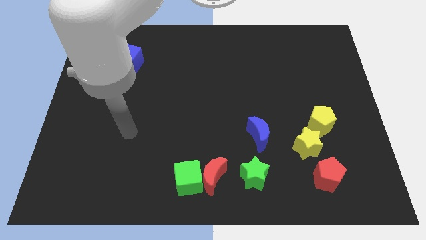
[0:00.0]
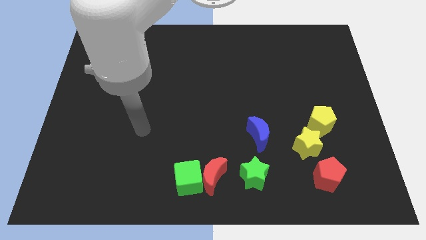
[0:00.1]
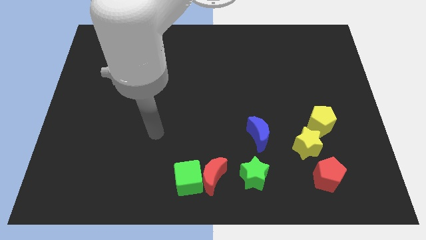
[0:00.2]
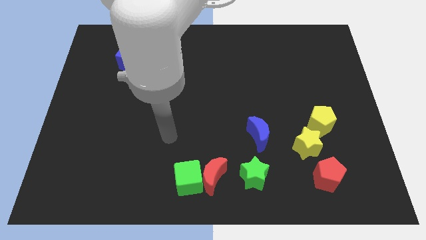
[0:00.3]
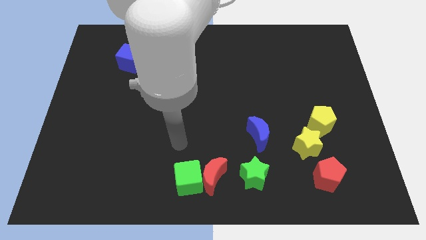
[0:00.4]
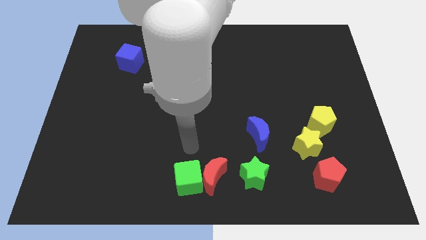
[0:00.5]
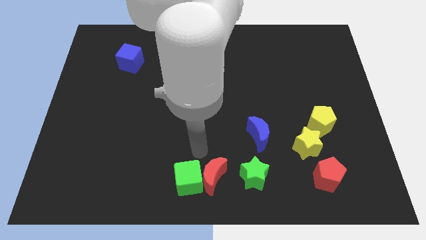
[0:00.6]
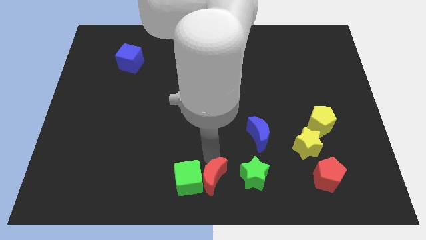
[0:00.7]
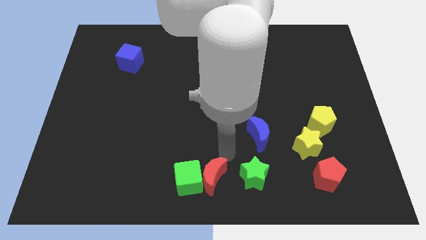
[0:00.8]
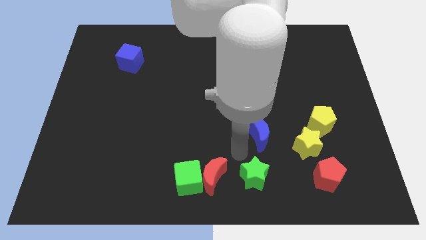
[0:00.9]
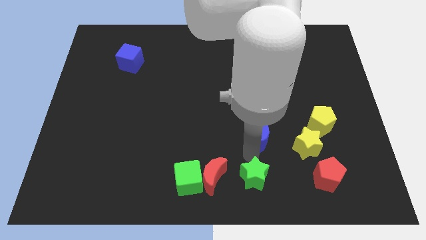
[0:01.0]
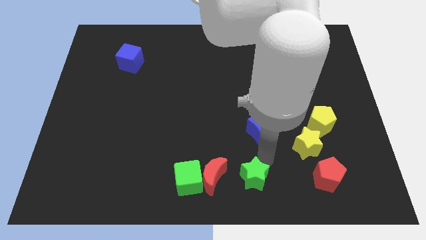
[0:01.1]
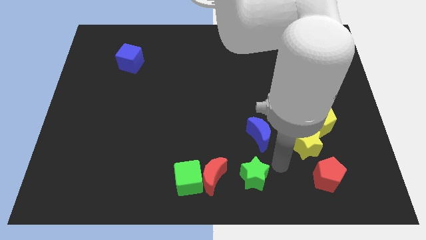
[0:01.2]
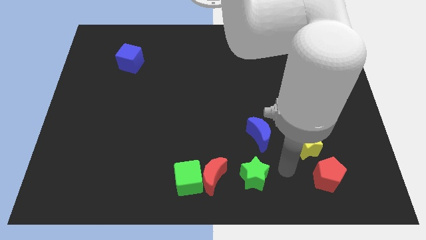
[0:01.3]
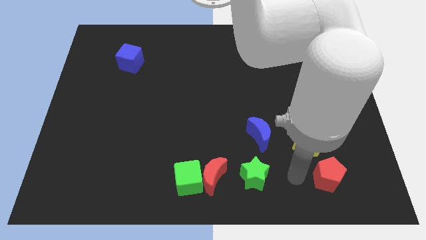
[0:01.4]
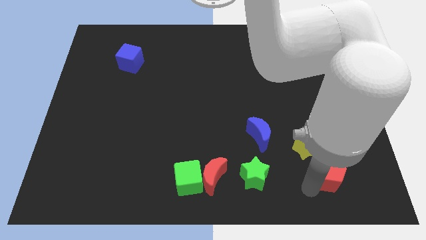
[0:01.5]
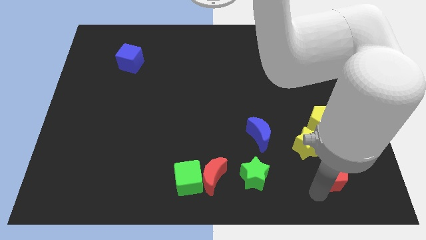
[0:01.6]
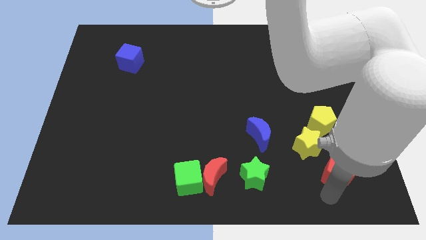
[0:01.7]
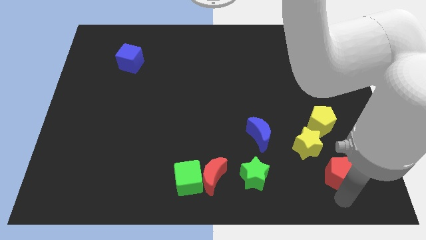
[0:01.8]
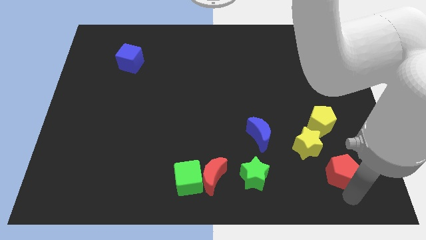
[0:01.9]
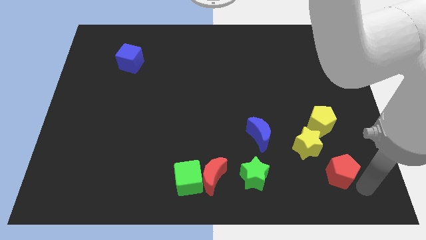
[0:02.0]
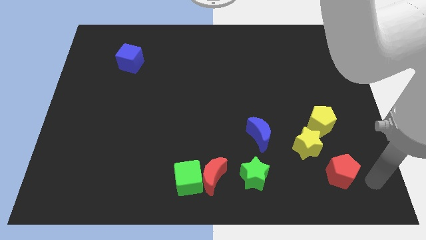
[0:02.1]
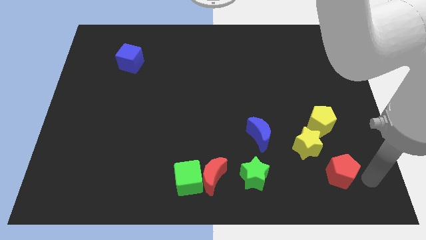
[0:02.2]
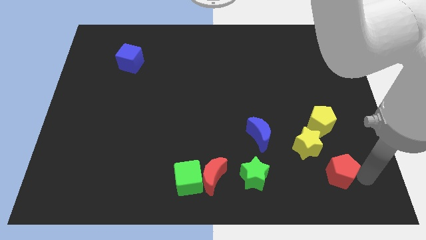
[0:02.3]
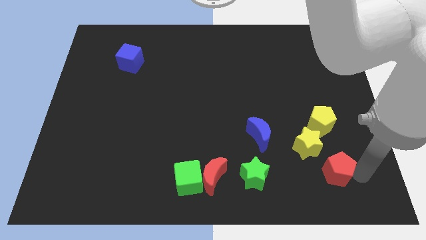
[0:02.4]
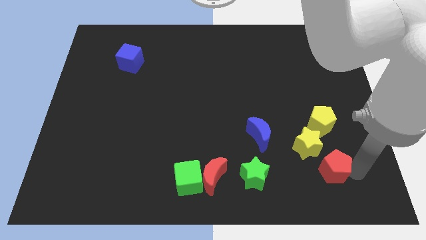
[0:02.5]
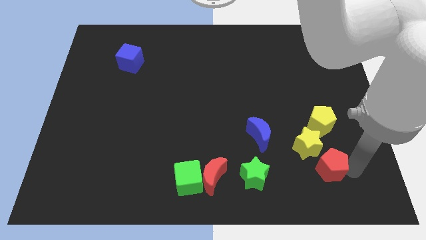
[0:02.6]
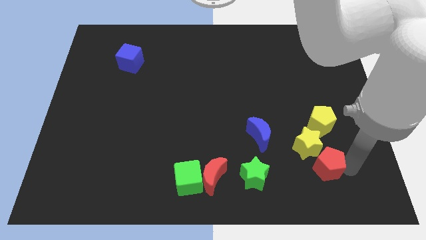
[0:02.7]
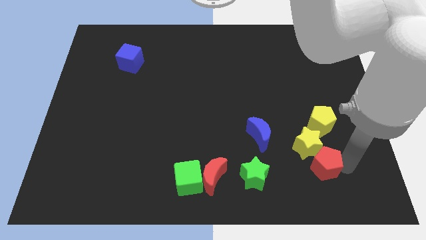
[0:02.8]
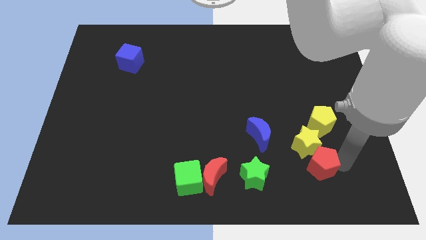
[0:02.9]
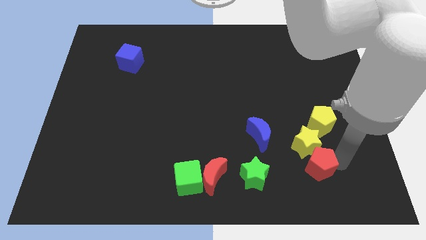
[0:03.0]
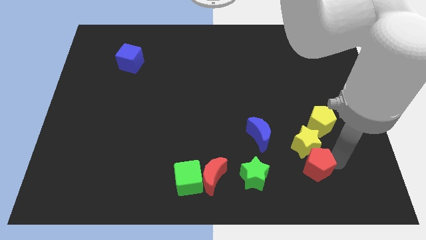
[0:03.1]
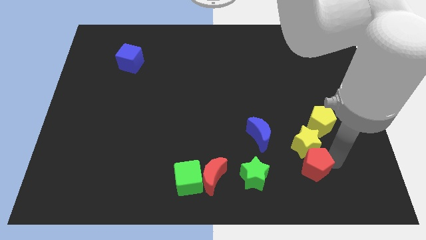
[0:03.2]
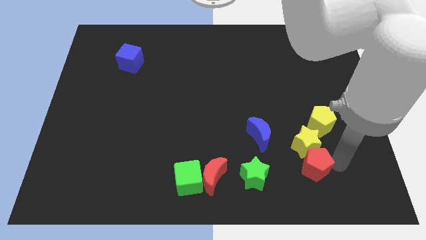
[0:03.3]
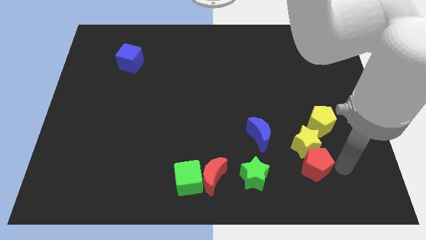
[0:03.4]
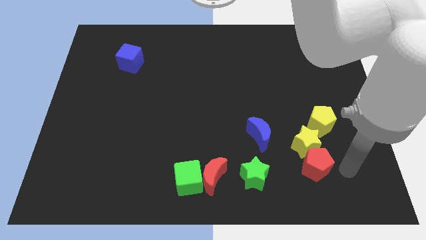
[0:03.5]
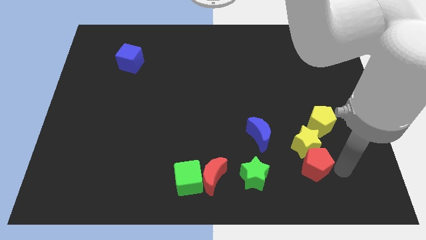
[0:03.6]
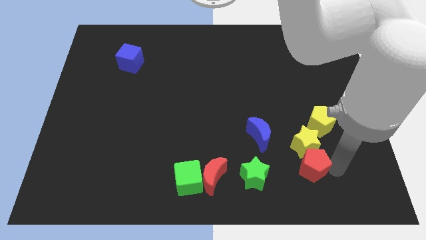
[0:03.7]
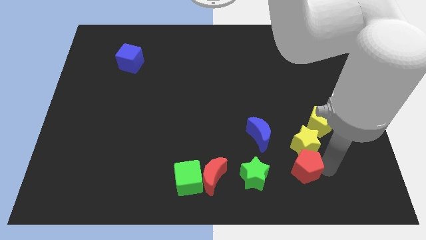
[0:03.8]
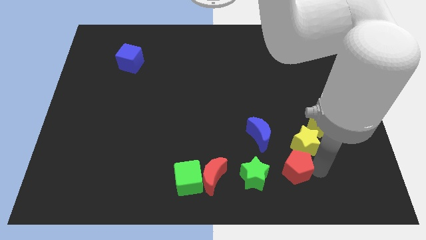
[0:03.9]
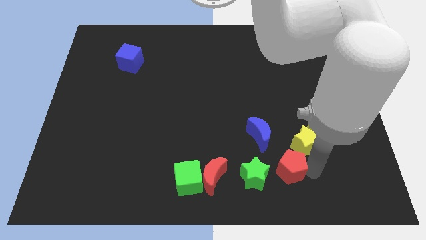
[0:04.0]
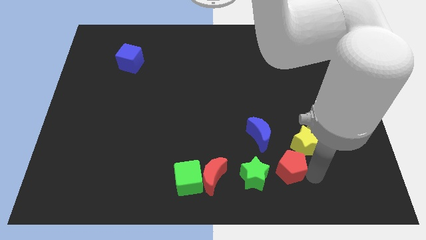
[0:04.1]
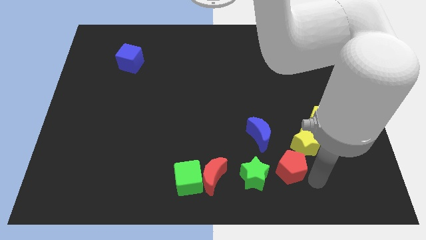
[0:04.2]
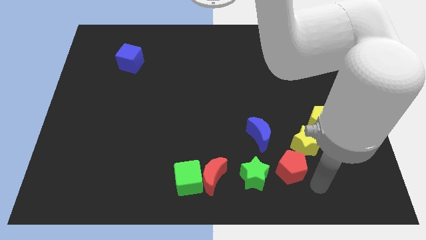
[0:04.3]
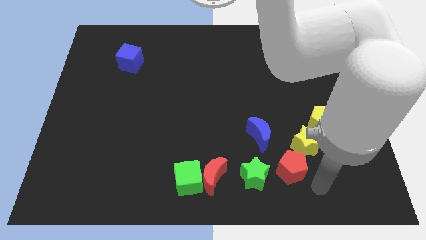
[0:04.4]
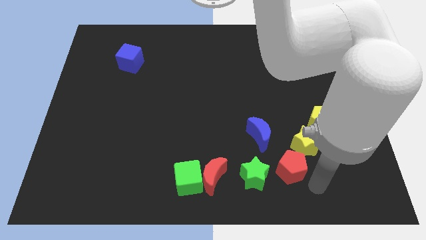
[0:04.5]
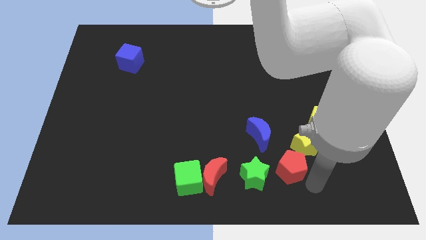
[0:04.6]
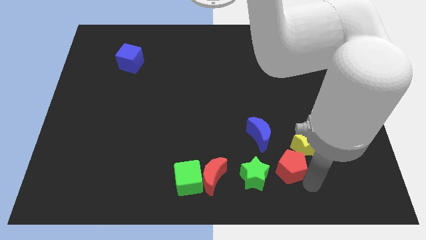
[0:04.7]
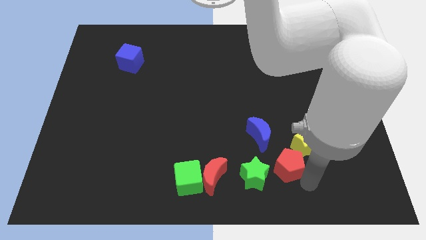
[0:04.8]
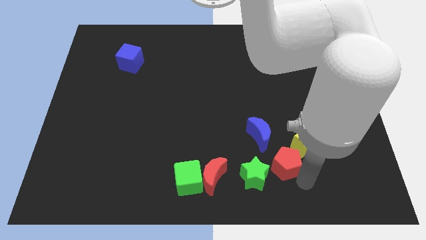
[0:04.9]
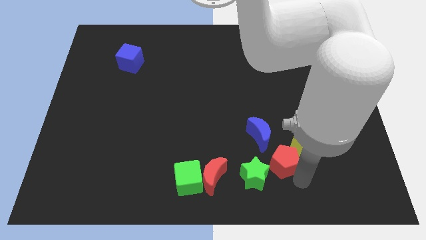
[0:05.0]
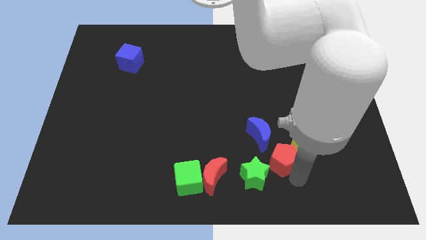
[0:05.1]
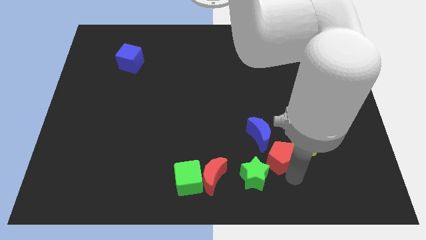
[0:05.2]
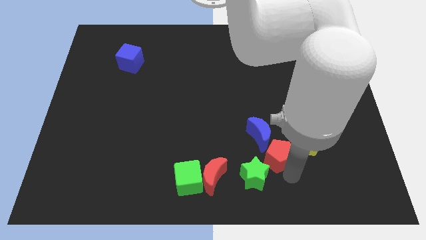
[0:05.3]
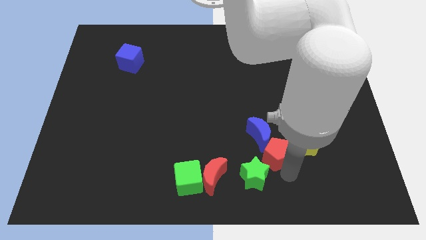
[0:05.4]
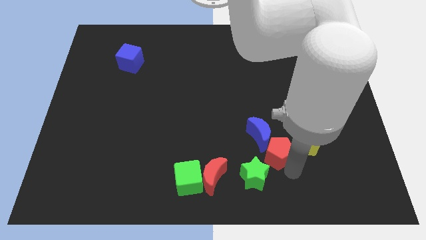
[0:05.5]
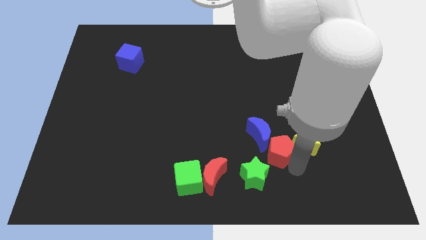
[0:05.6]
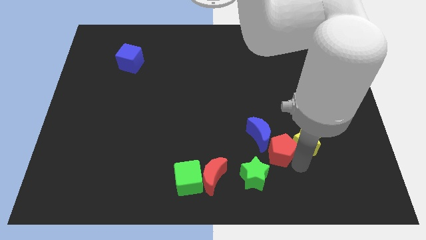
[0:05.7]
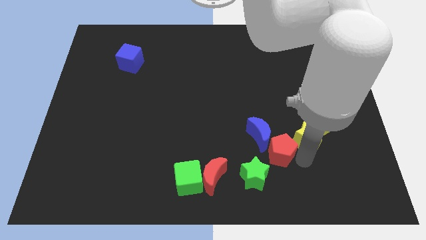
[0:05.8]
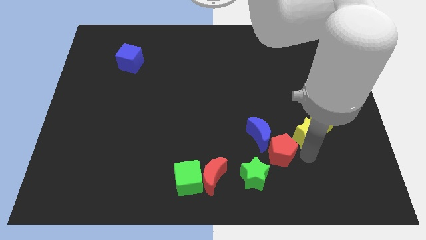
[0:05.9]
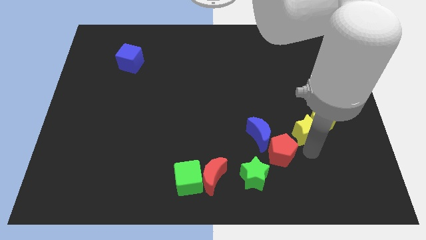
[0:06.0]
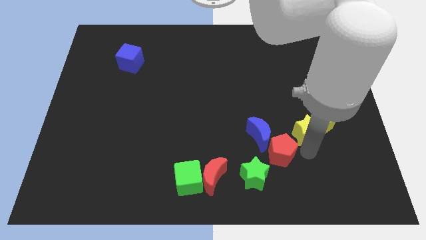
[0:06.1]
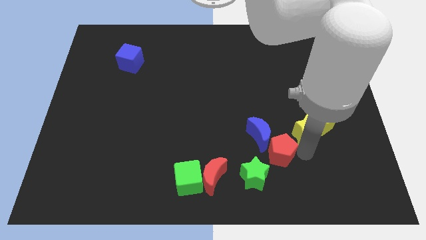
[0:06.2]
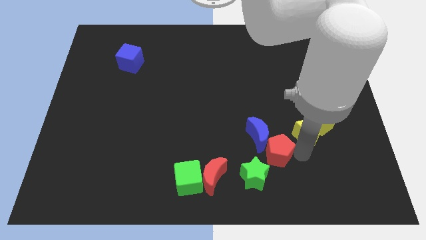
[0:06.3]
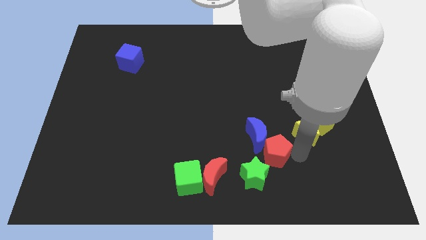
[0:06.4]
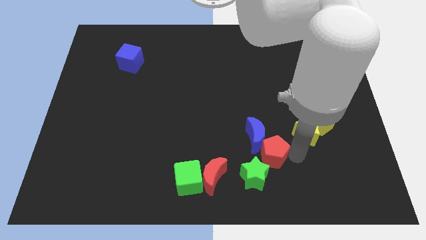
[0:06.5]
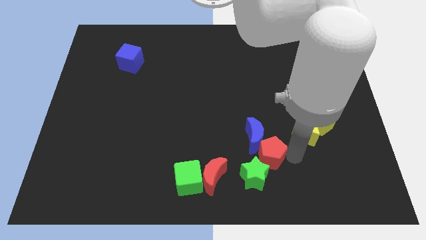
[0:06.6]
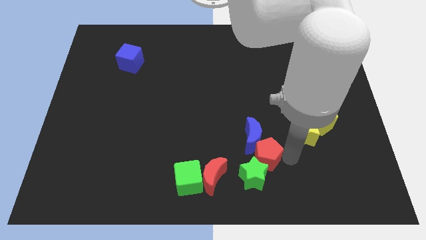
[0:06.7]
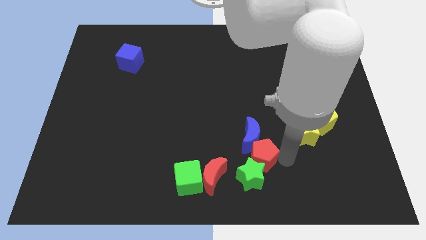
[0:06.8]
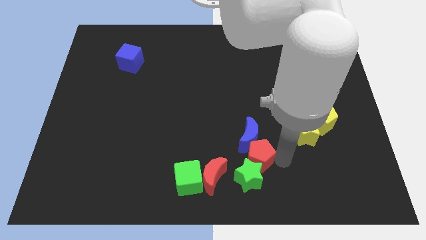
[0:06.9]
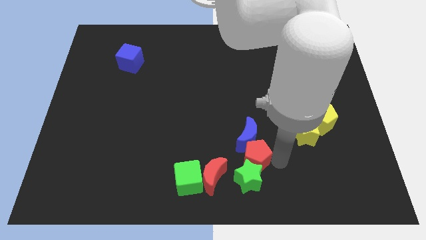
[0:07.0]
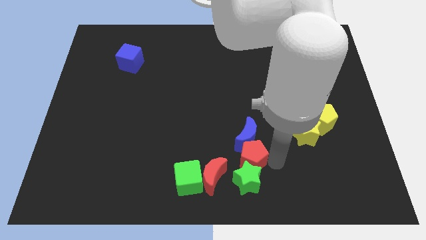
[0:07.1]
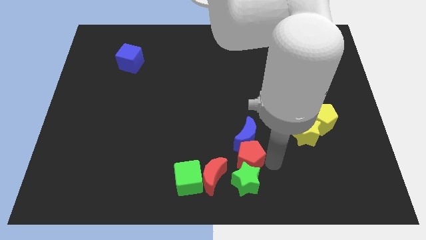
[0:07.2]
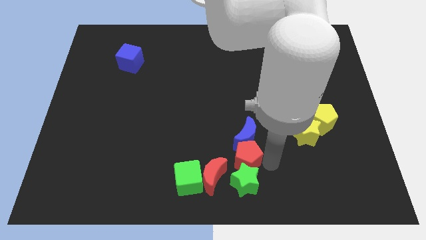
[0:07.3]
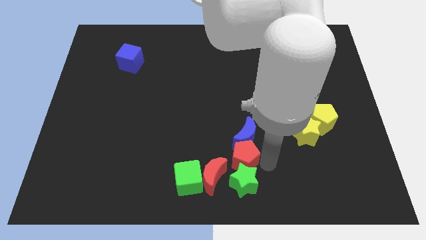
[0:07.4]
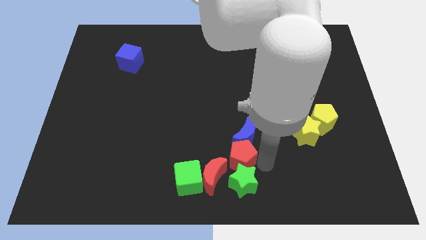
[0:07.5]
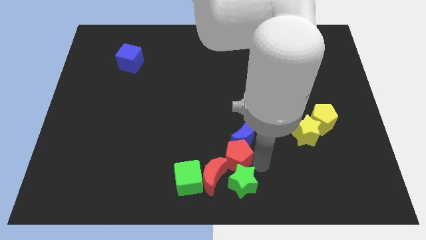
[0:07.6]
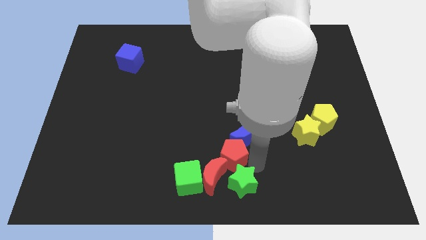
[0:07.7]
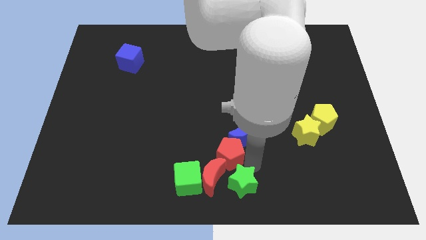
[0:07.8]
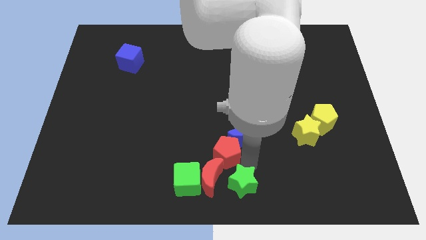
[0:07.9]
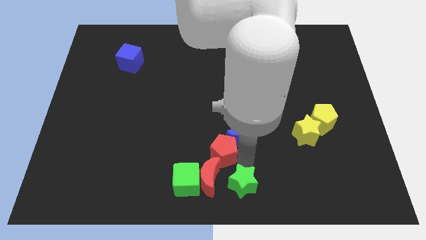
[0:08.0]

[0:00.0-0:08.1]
push the red pentagon left

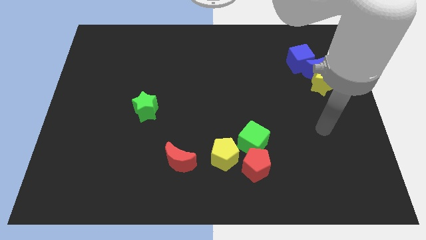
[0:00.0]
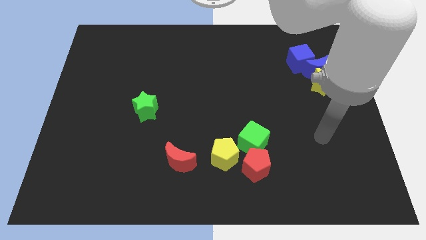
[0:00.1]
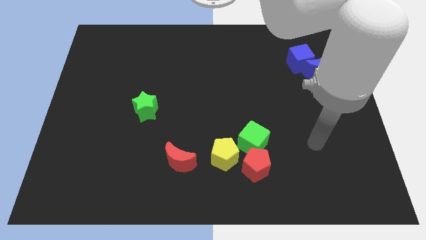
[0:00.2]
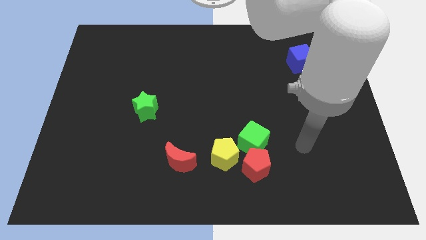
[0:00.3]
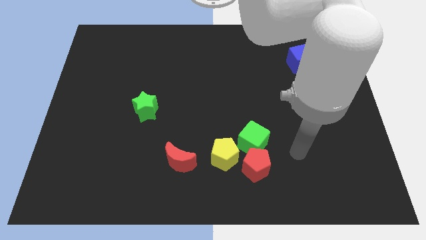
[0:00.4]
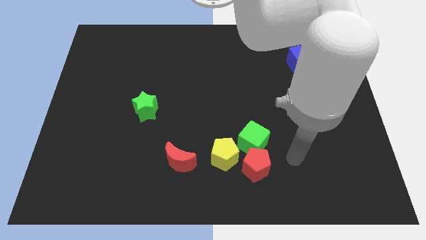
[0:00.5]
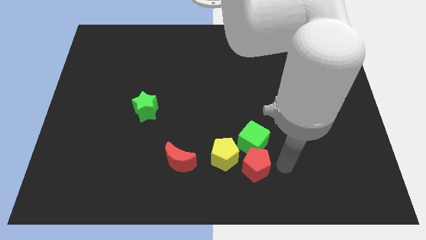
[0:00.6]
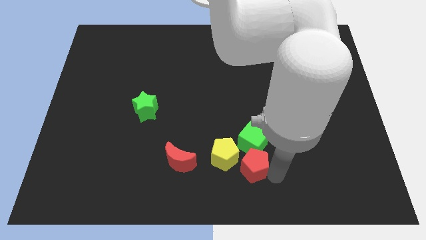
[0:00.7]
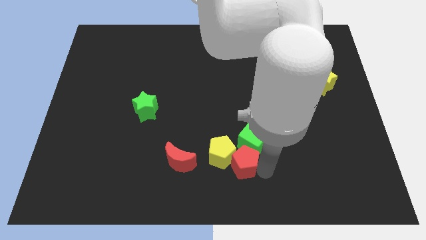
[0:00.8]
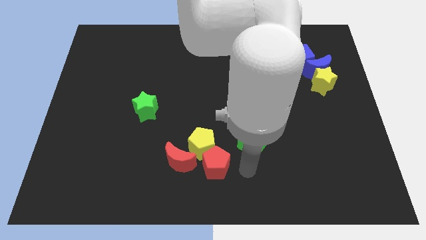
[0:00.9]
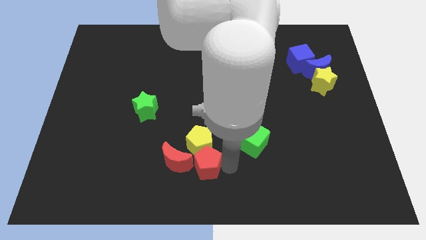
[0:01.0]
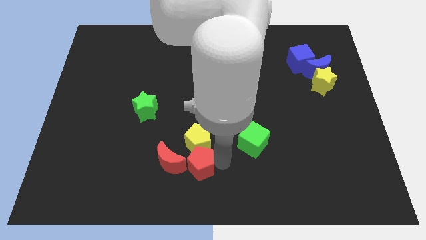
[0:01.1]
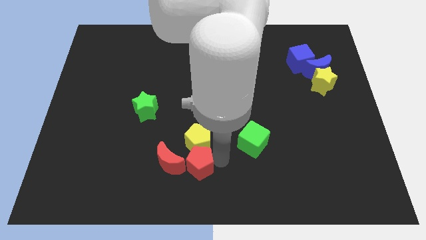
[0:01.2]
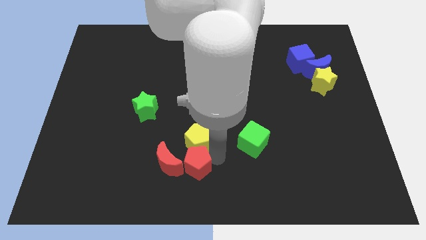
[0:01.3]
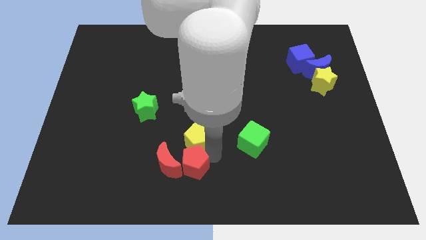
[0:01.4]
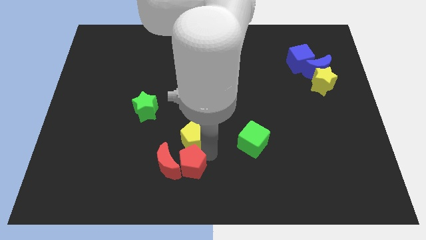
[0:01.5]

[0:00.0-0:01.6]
move the yellow pentagon a little upwards and then left
